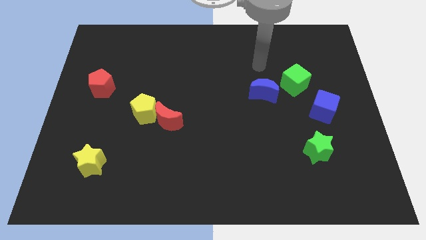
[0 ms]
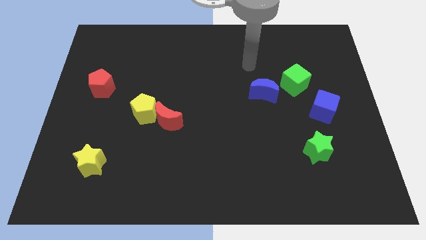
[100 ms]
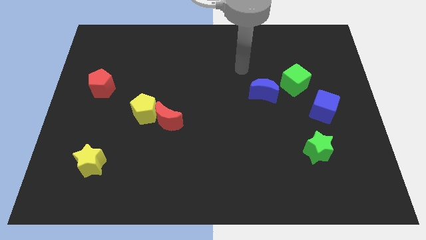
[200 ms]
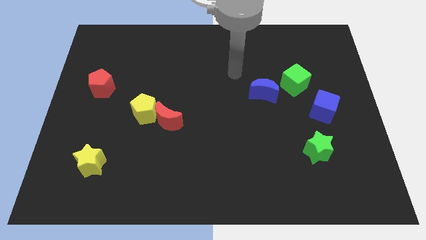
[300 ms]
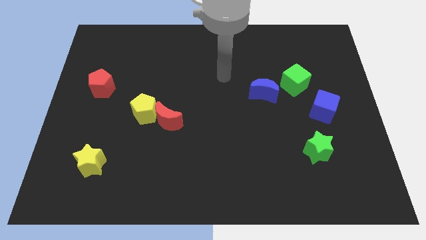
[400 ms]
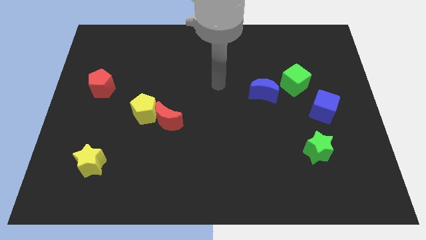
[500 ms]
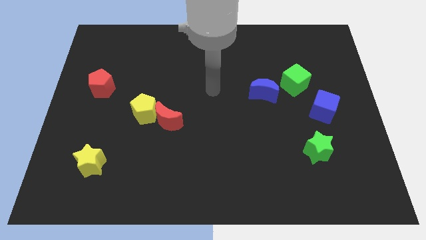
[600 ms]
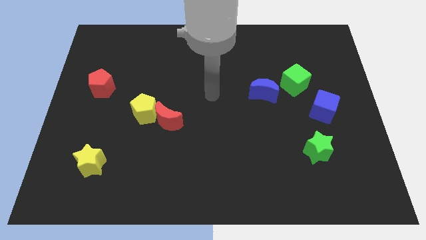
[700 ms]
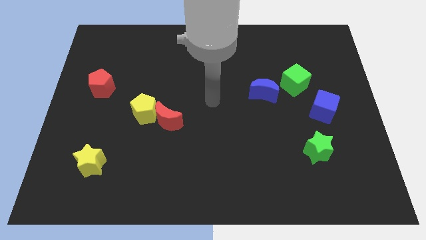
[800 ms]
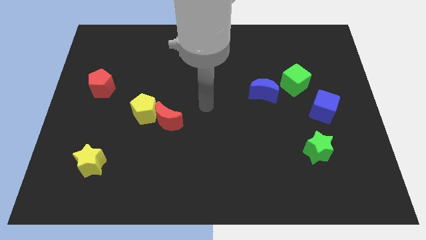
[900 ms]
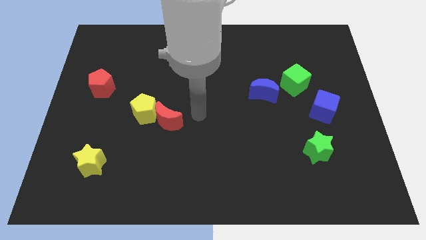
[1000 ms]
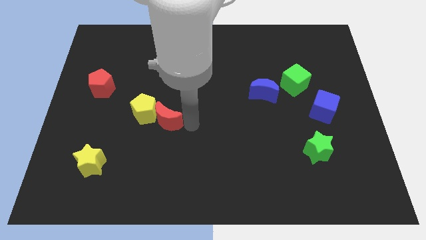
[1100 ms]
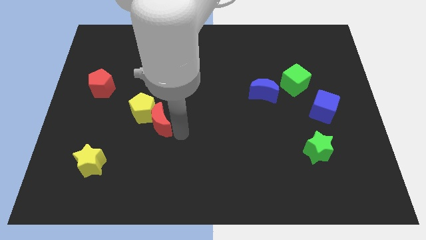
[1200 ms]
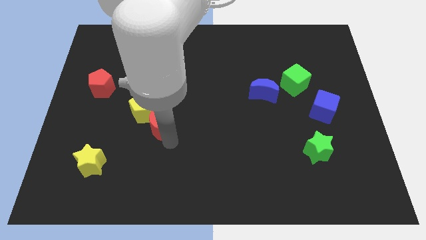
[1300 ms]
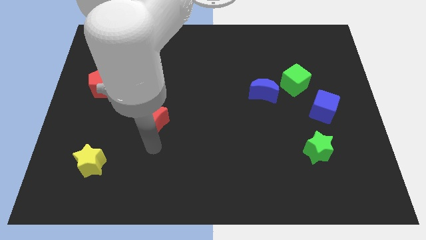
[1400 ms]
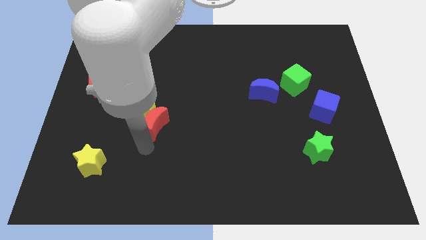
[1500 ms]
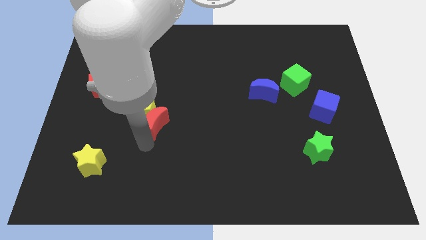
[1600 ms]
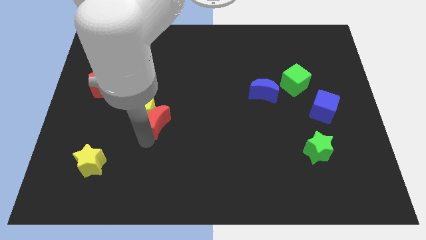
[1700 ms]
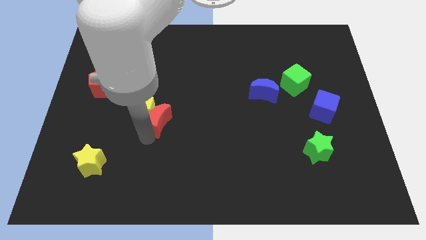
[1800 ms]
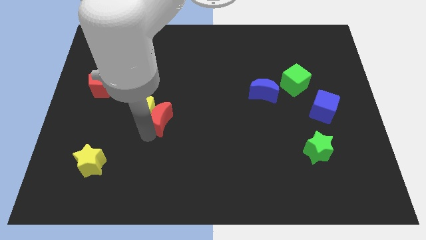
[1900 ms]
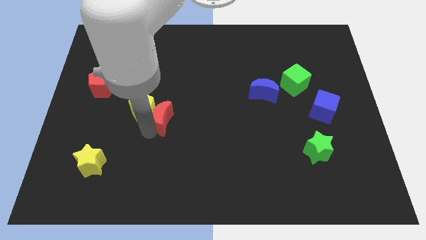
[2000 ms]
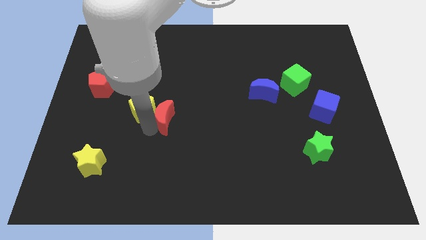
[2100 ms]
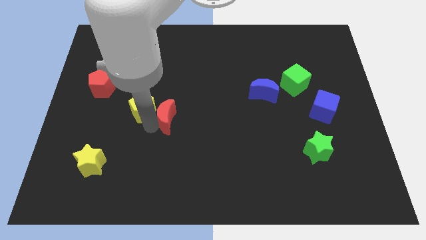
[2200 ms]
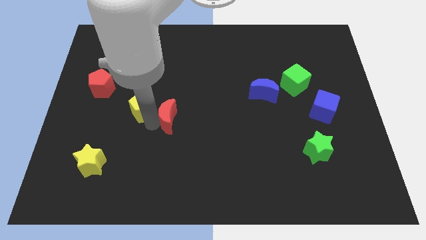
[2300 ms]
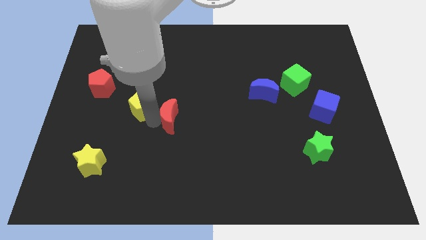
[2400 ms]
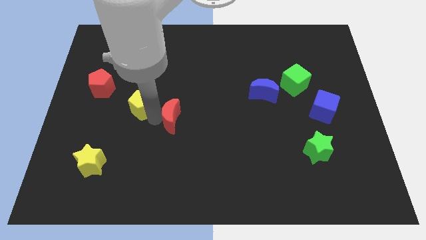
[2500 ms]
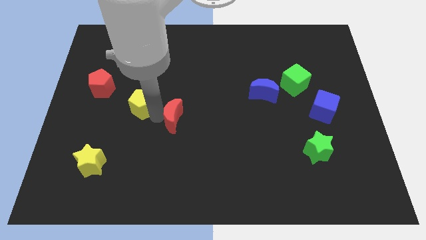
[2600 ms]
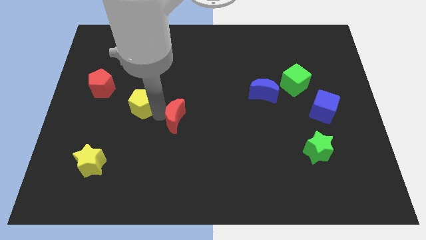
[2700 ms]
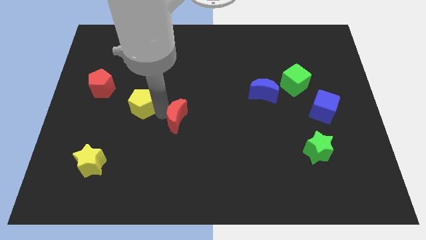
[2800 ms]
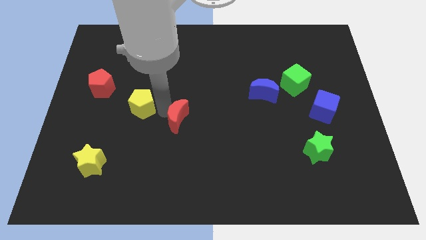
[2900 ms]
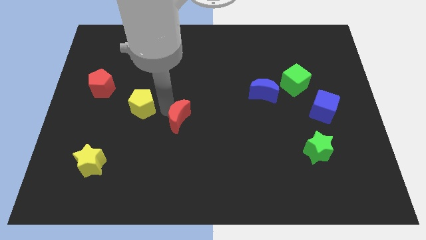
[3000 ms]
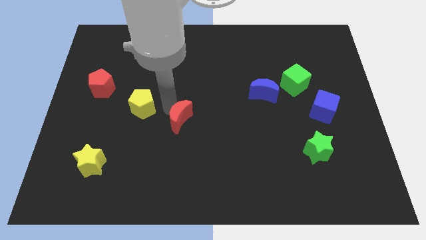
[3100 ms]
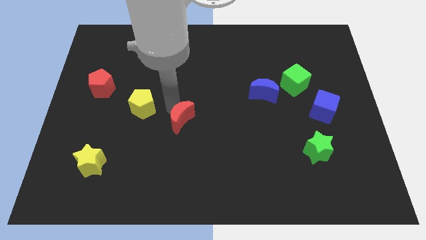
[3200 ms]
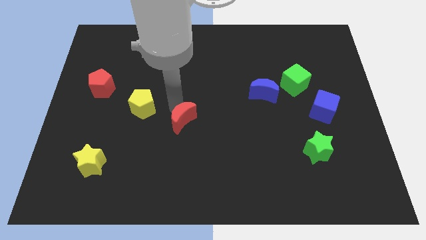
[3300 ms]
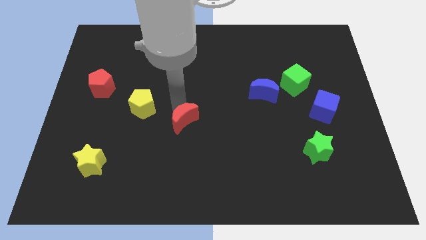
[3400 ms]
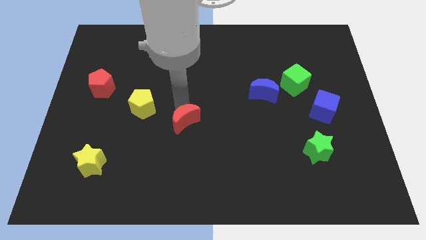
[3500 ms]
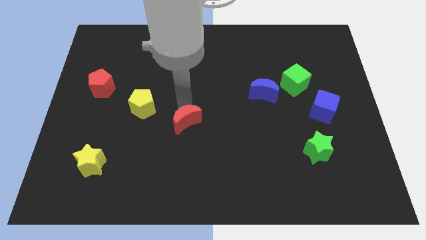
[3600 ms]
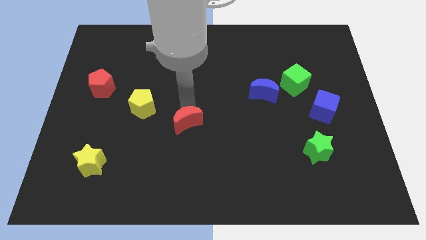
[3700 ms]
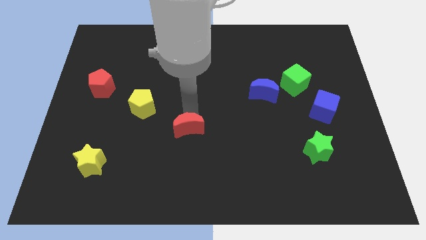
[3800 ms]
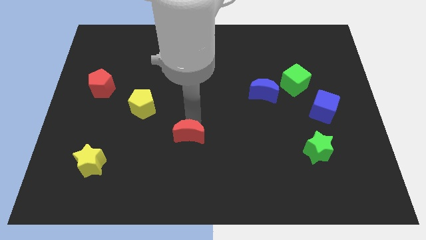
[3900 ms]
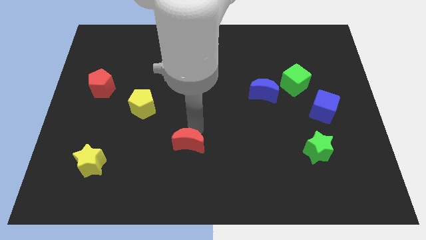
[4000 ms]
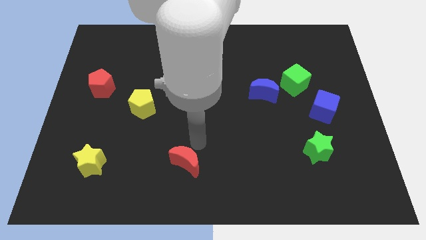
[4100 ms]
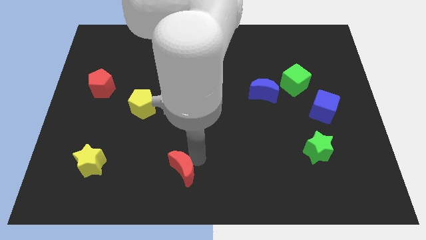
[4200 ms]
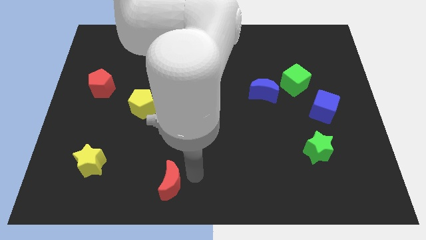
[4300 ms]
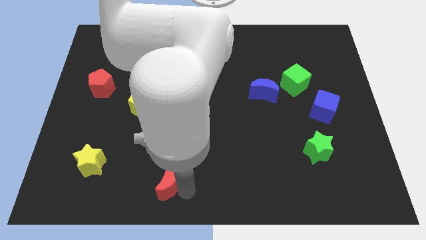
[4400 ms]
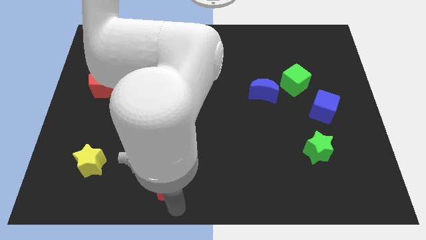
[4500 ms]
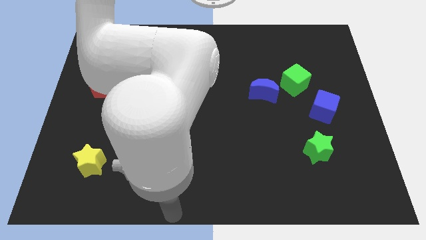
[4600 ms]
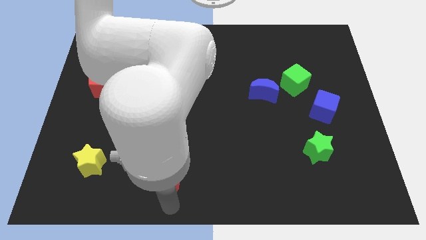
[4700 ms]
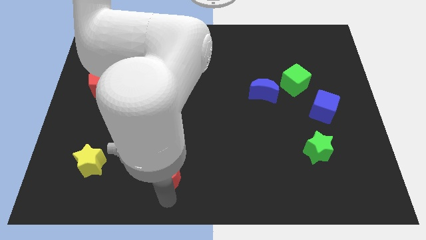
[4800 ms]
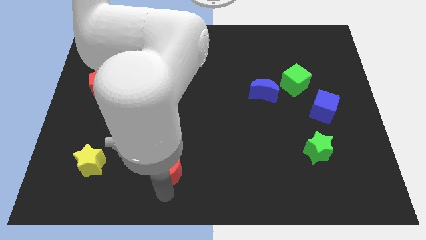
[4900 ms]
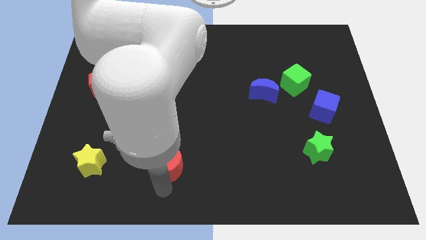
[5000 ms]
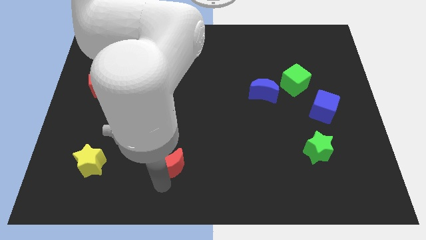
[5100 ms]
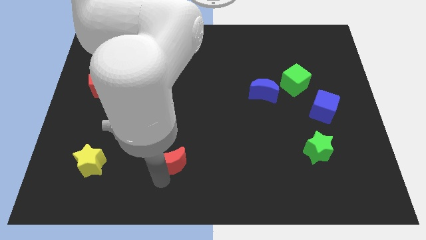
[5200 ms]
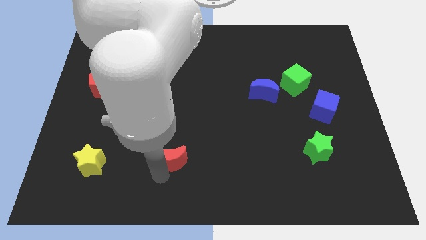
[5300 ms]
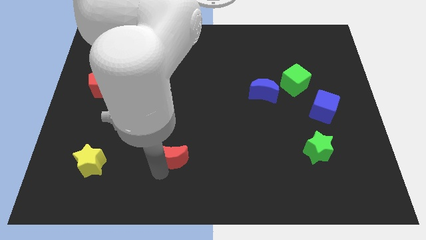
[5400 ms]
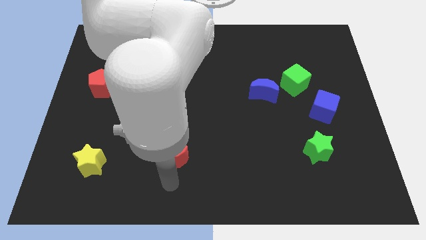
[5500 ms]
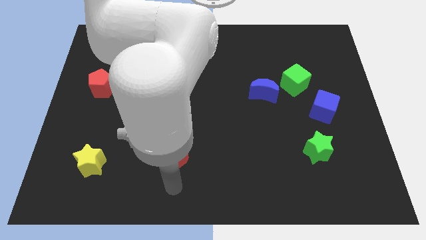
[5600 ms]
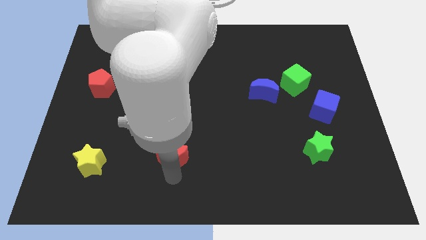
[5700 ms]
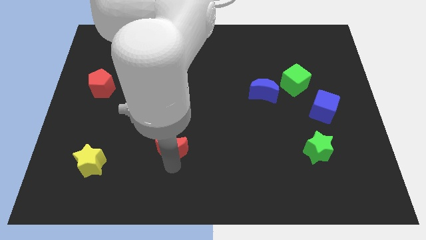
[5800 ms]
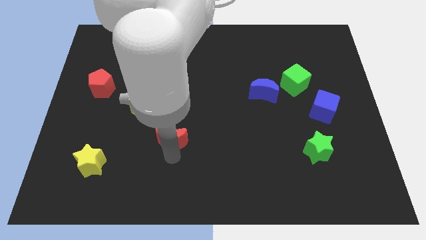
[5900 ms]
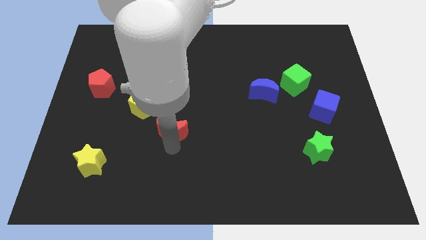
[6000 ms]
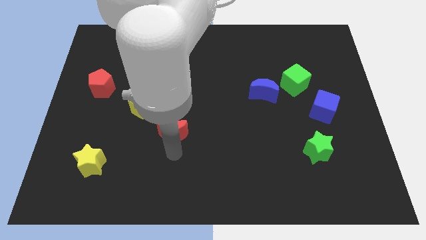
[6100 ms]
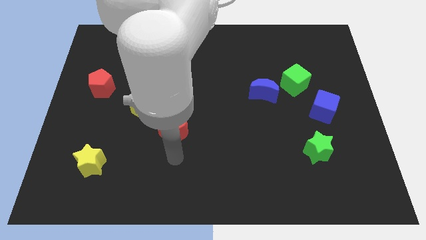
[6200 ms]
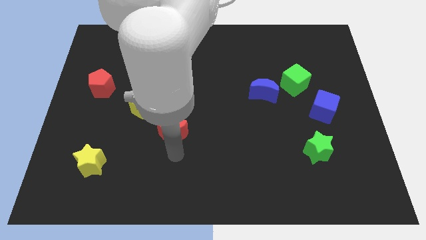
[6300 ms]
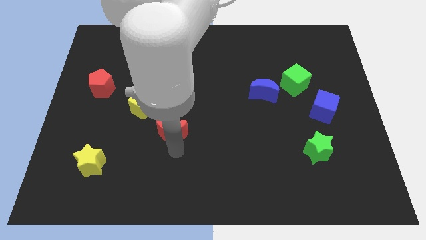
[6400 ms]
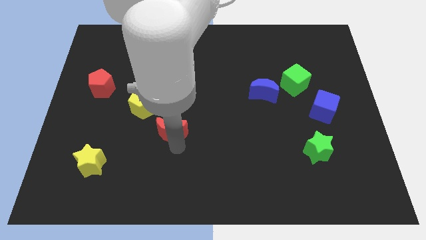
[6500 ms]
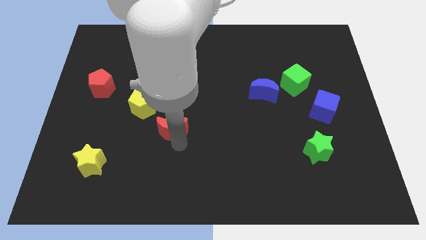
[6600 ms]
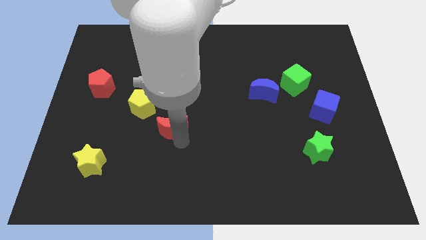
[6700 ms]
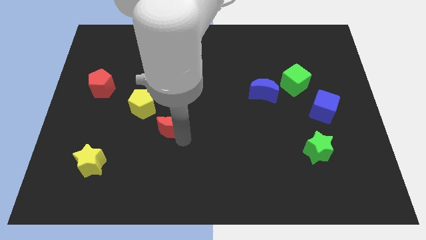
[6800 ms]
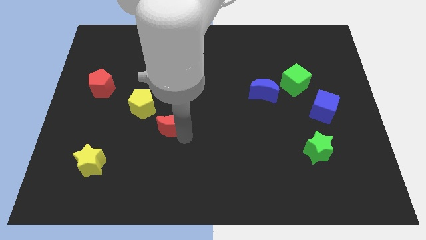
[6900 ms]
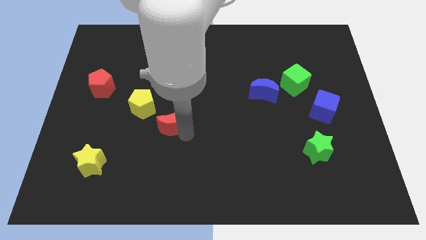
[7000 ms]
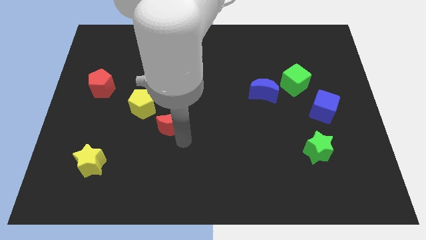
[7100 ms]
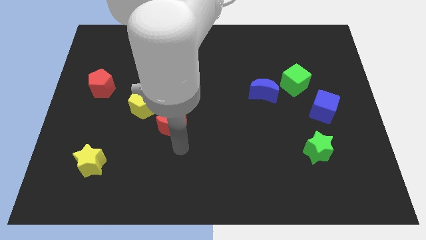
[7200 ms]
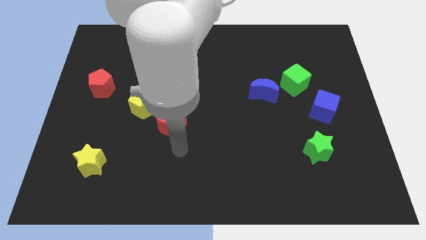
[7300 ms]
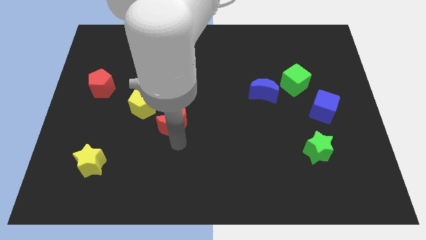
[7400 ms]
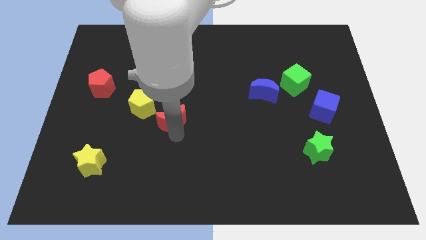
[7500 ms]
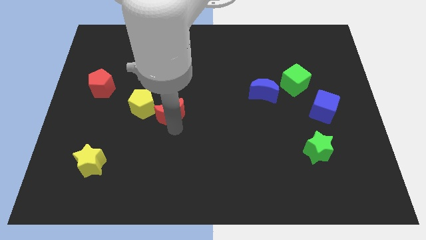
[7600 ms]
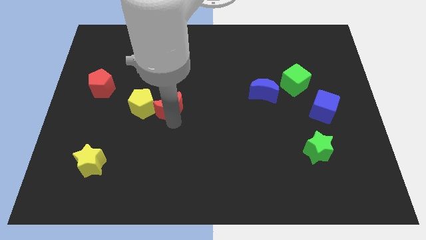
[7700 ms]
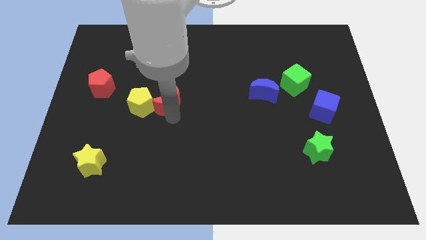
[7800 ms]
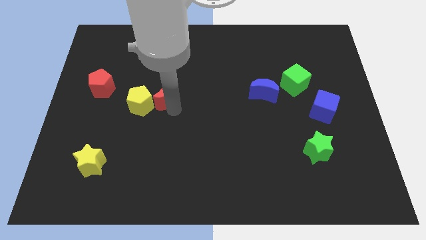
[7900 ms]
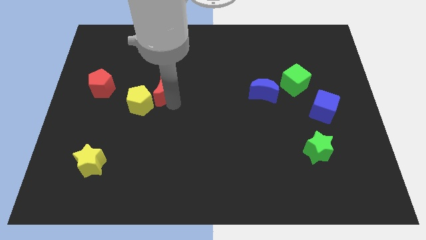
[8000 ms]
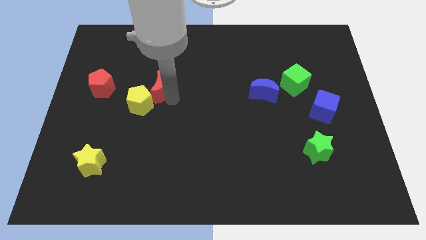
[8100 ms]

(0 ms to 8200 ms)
slide the red moon slightly diagonally up and to the left
